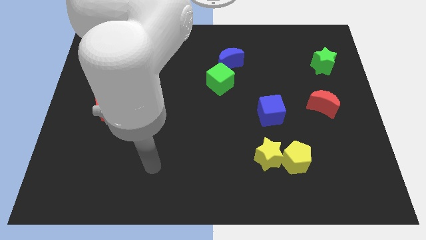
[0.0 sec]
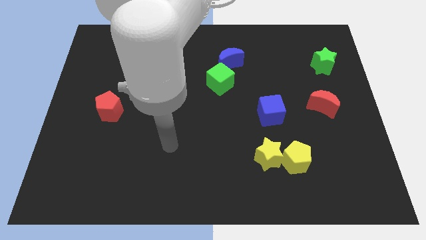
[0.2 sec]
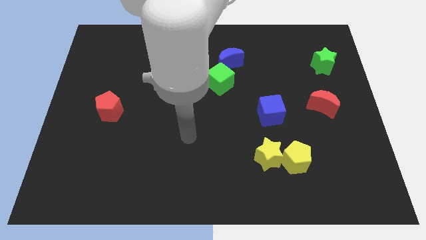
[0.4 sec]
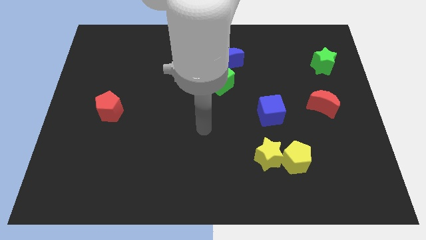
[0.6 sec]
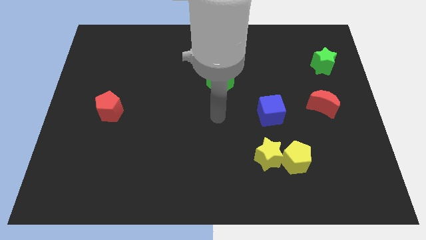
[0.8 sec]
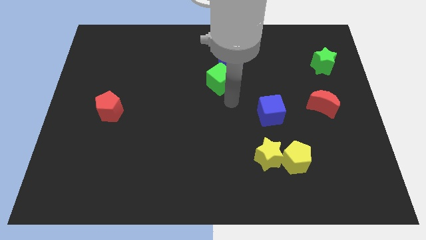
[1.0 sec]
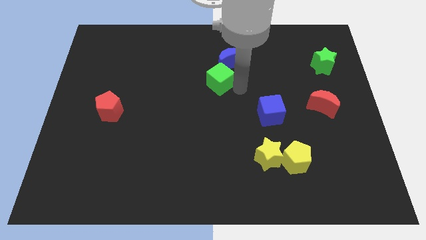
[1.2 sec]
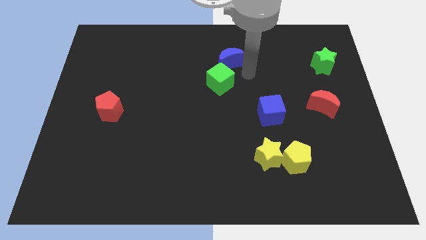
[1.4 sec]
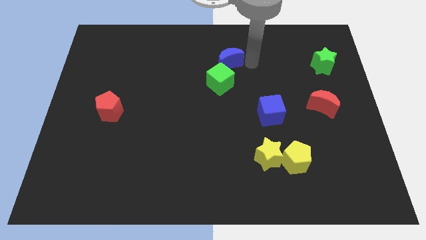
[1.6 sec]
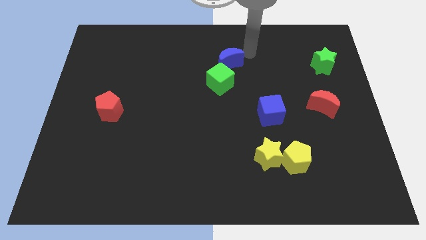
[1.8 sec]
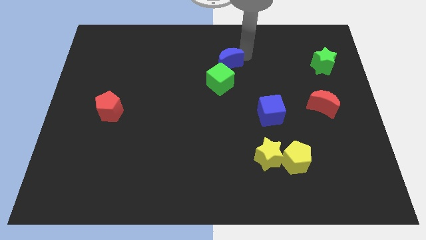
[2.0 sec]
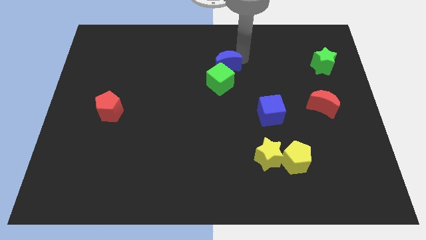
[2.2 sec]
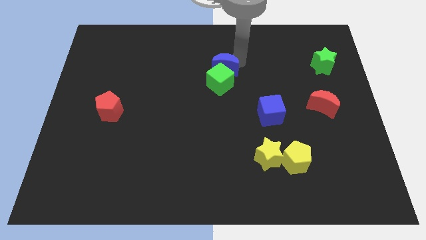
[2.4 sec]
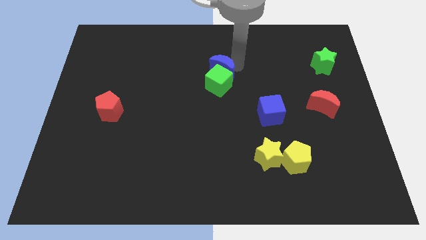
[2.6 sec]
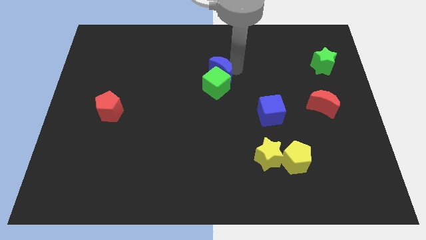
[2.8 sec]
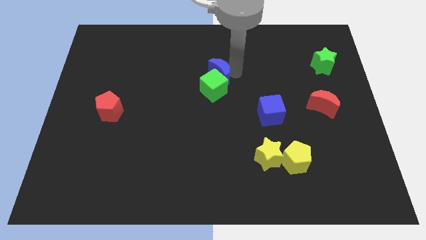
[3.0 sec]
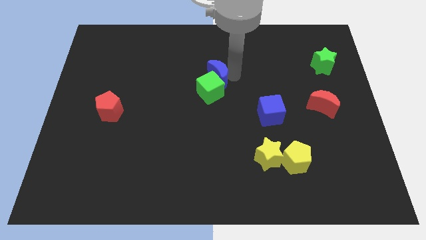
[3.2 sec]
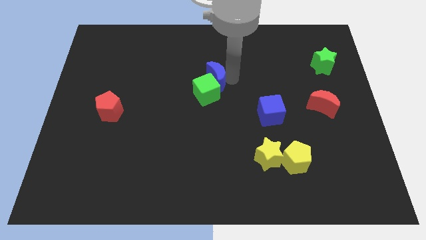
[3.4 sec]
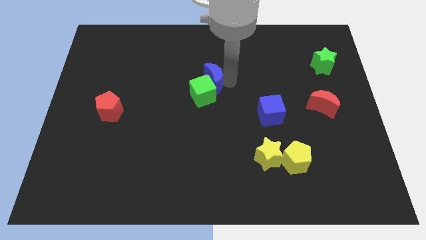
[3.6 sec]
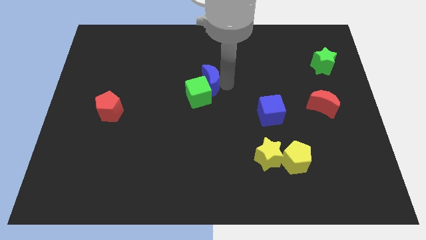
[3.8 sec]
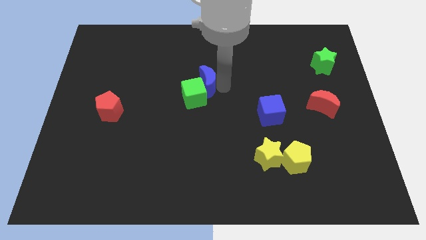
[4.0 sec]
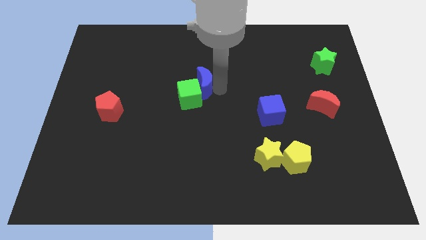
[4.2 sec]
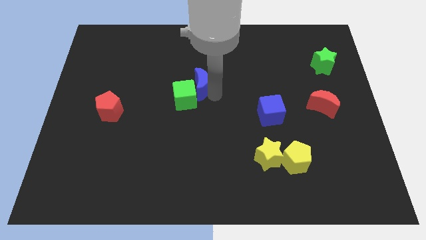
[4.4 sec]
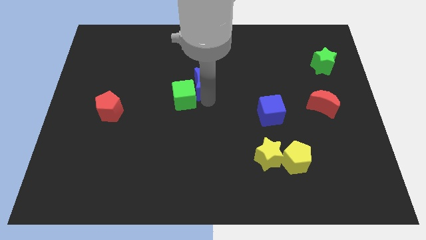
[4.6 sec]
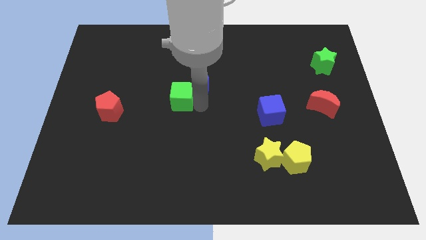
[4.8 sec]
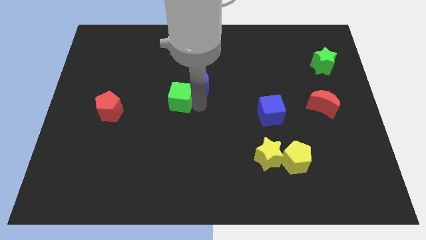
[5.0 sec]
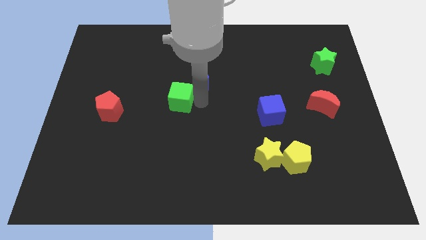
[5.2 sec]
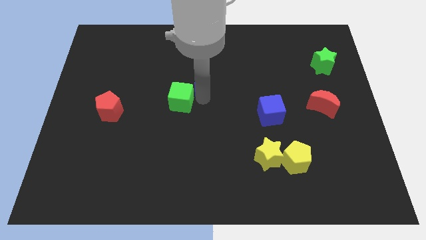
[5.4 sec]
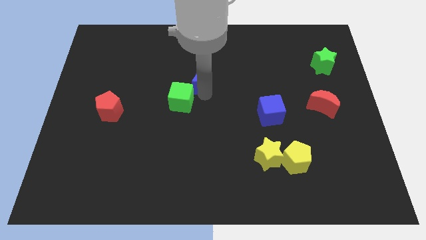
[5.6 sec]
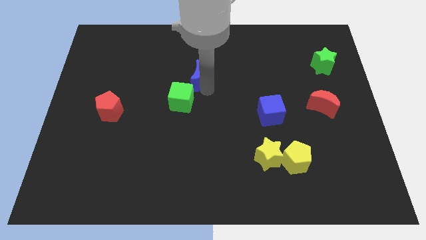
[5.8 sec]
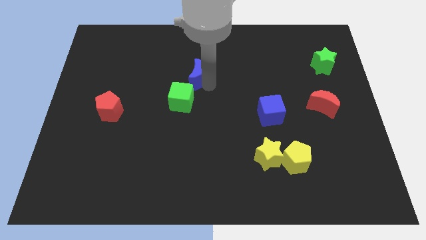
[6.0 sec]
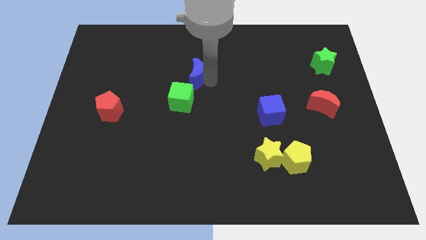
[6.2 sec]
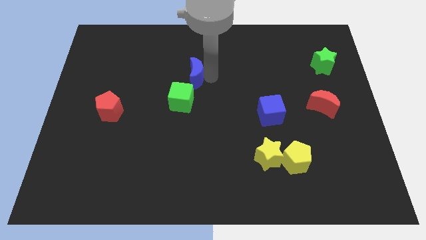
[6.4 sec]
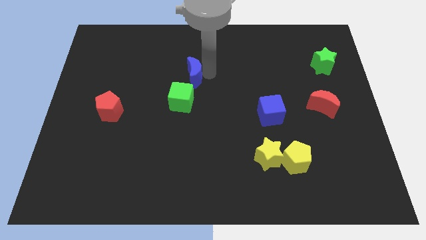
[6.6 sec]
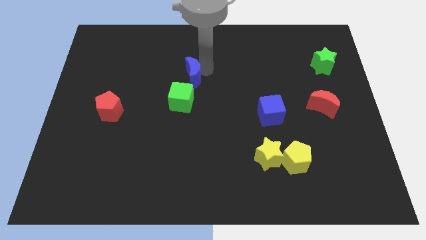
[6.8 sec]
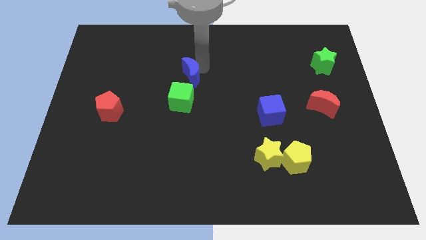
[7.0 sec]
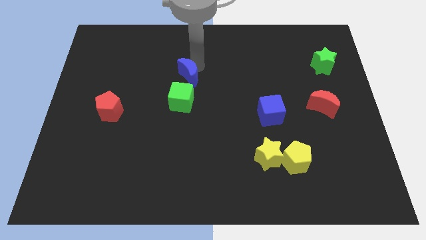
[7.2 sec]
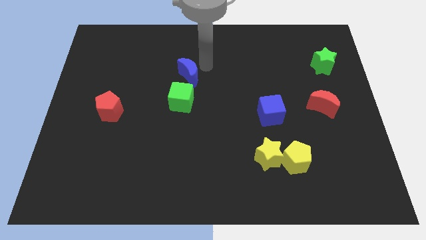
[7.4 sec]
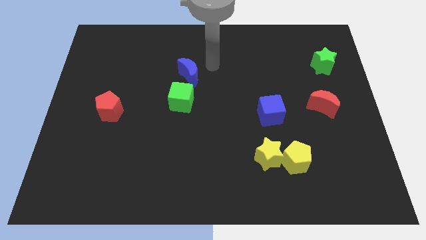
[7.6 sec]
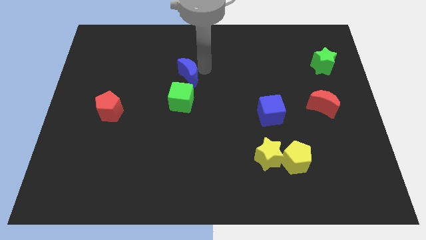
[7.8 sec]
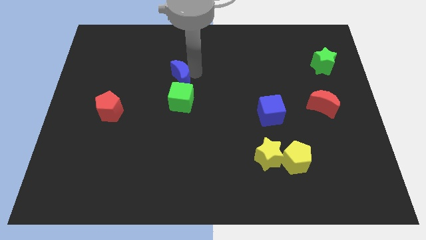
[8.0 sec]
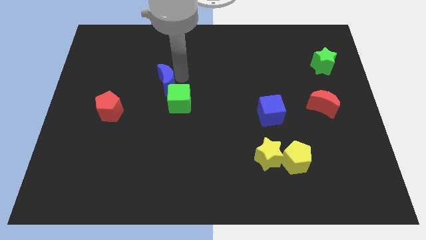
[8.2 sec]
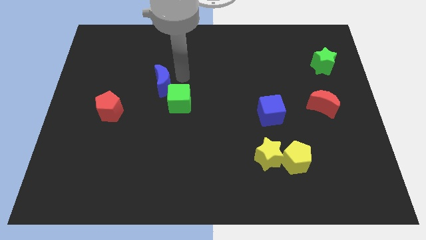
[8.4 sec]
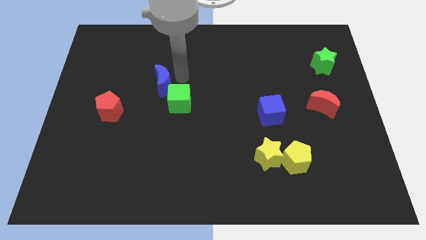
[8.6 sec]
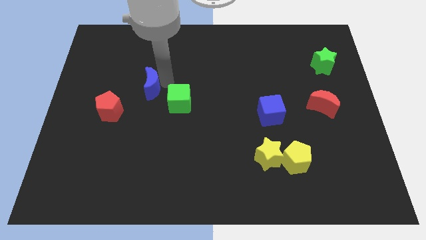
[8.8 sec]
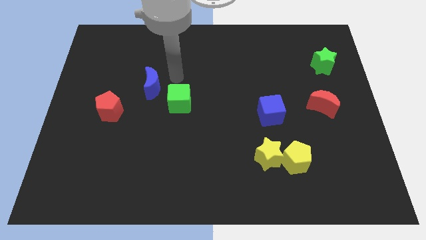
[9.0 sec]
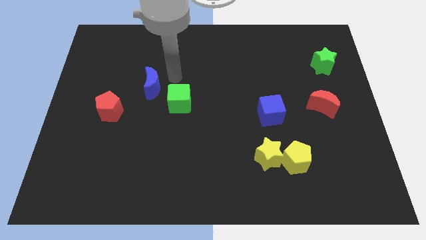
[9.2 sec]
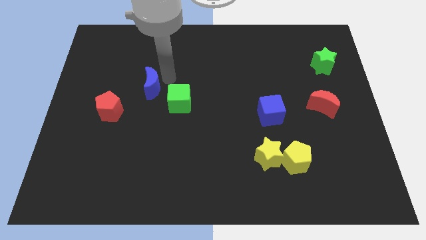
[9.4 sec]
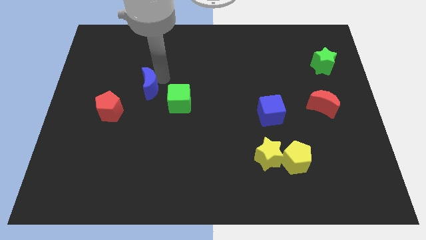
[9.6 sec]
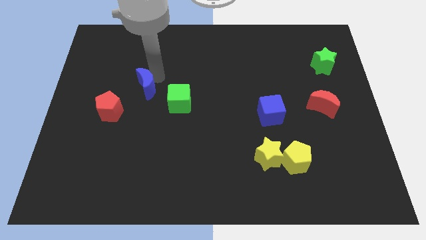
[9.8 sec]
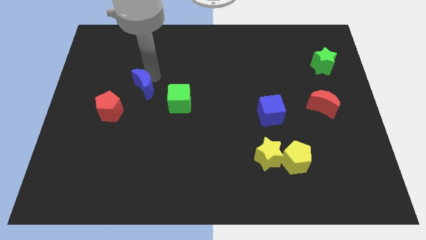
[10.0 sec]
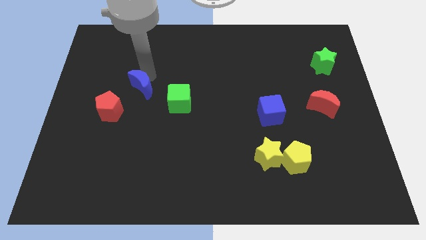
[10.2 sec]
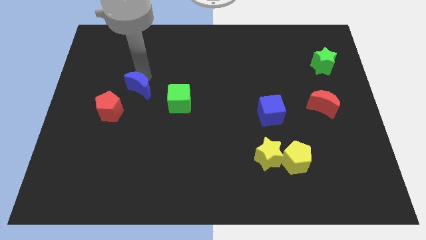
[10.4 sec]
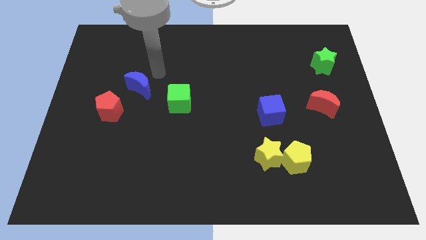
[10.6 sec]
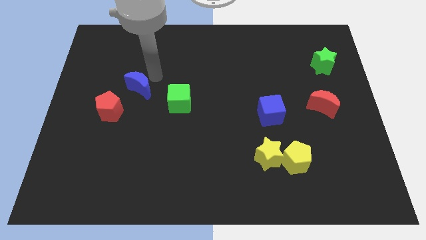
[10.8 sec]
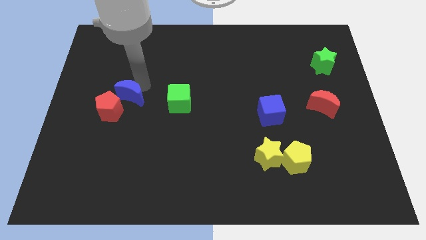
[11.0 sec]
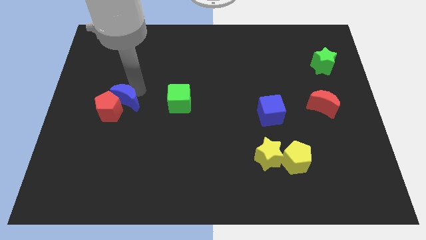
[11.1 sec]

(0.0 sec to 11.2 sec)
put the blue moon close to the red pentagon

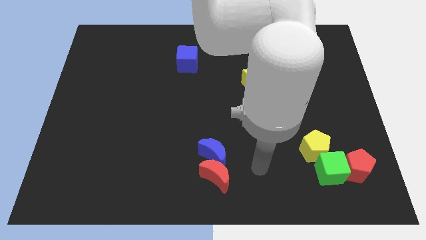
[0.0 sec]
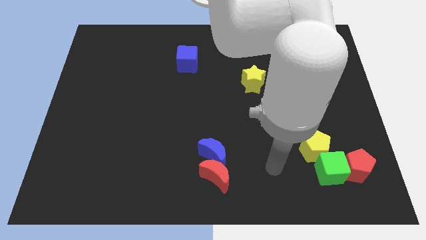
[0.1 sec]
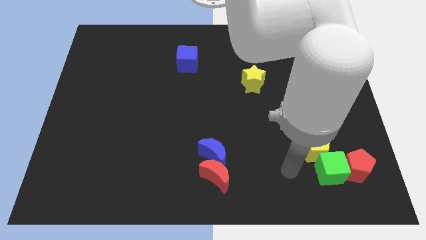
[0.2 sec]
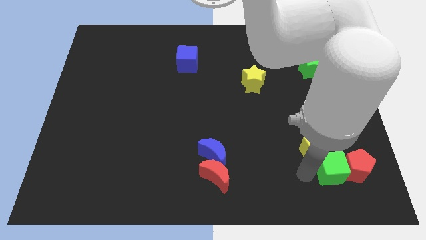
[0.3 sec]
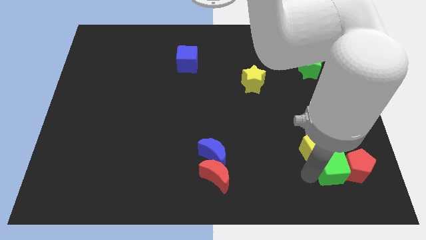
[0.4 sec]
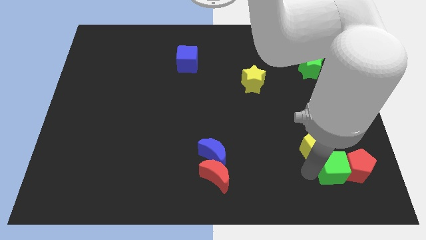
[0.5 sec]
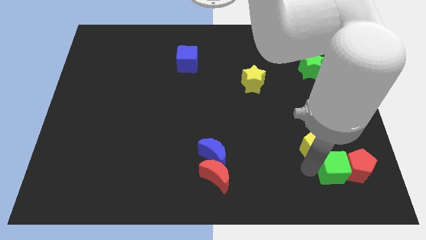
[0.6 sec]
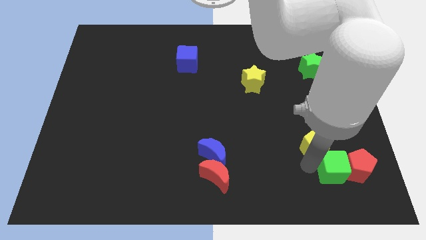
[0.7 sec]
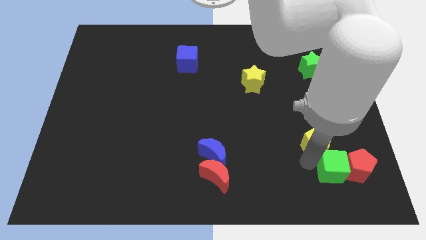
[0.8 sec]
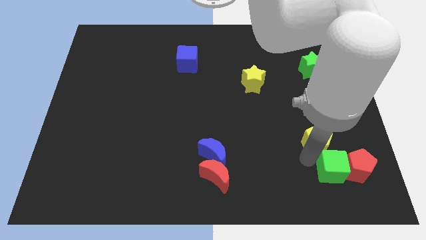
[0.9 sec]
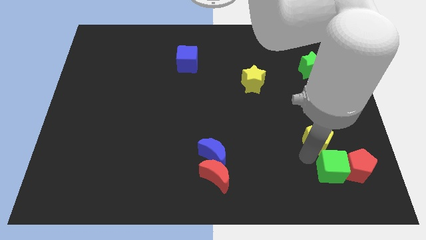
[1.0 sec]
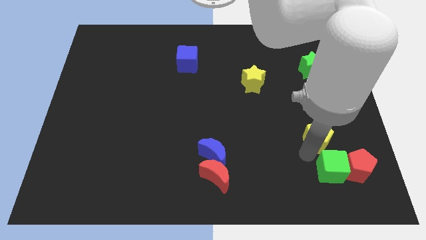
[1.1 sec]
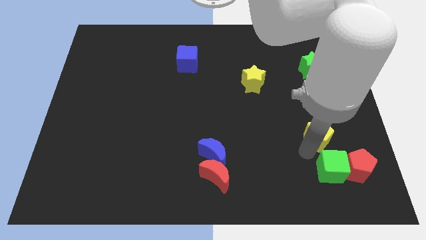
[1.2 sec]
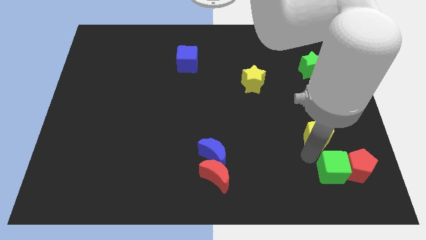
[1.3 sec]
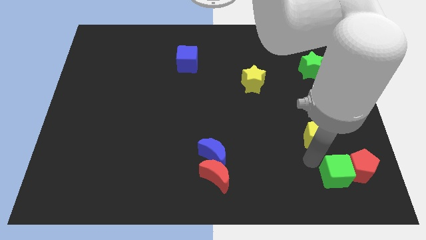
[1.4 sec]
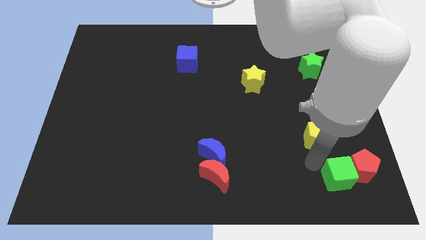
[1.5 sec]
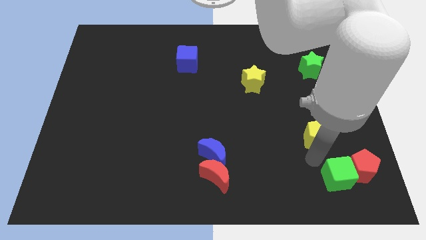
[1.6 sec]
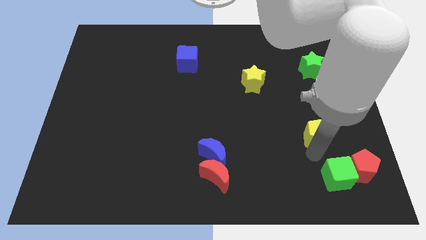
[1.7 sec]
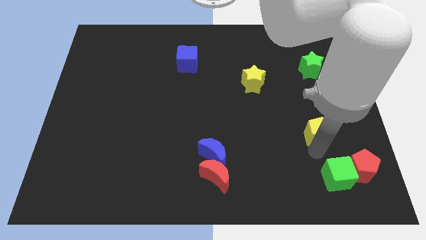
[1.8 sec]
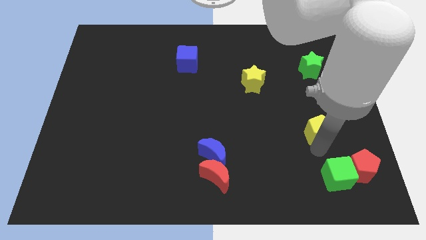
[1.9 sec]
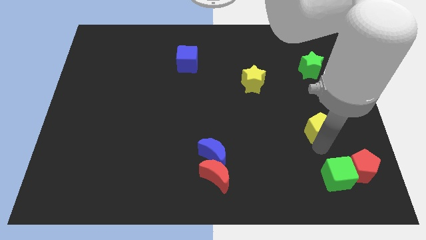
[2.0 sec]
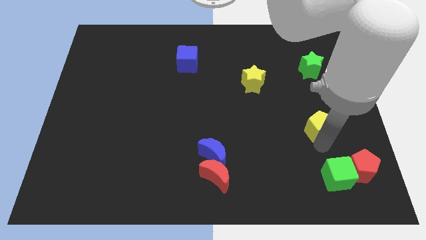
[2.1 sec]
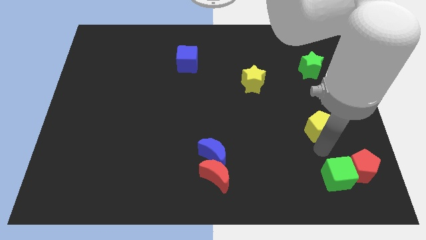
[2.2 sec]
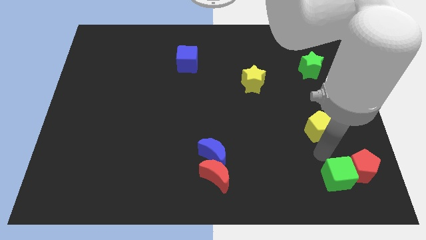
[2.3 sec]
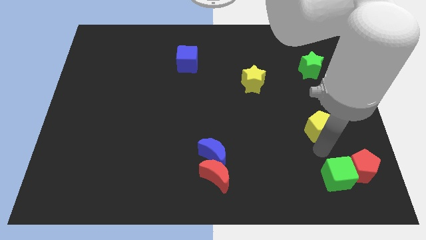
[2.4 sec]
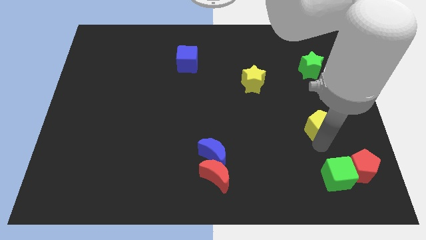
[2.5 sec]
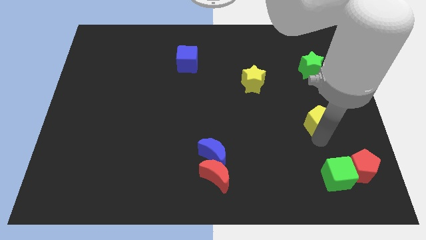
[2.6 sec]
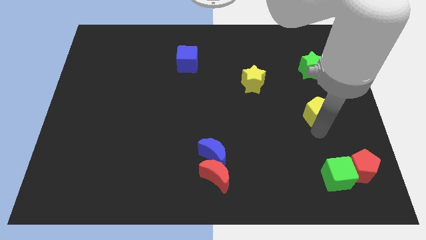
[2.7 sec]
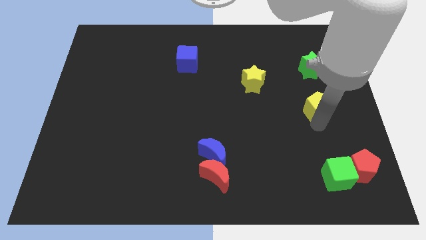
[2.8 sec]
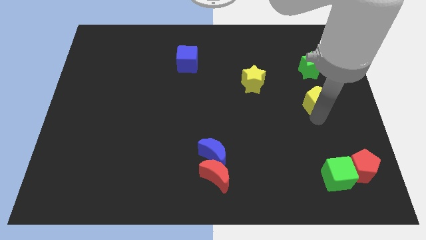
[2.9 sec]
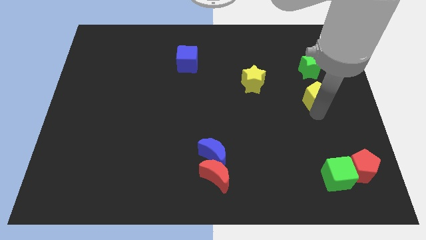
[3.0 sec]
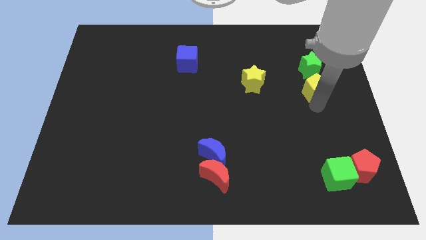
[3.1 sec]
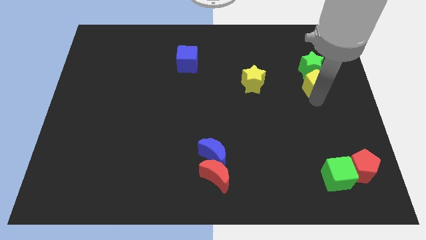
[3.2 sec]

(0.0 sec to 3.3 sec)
push the yellow pentagon towards the green star
